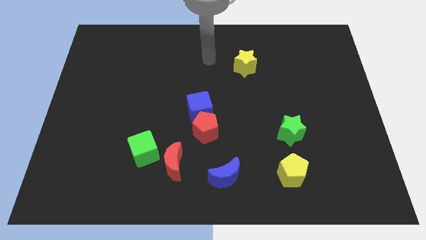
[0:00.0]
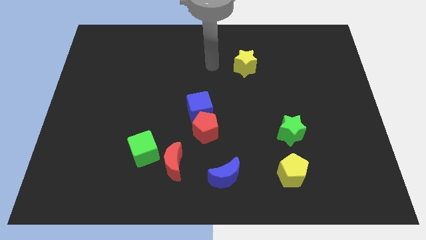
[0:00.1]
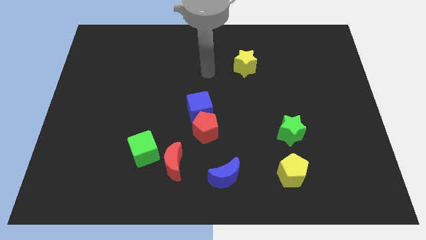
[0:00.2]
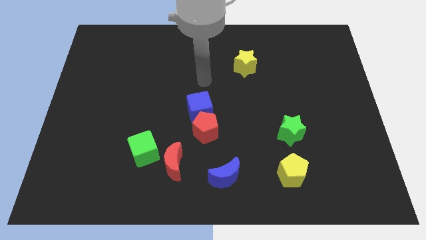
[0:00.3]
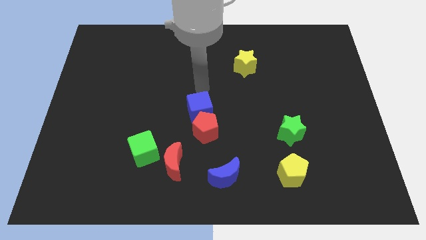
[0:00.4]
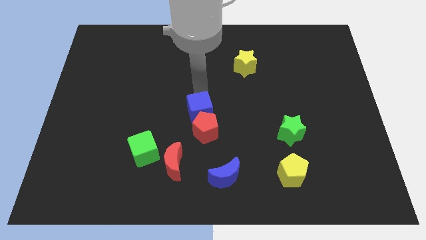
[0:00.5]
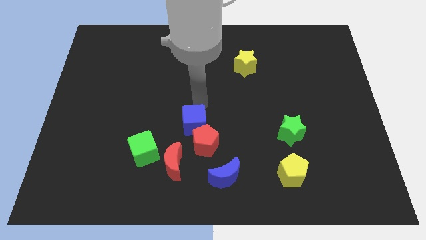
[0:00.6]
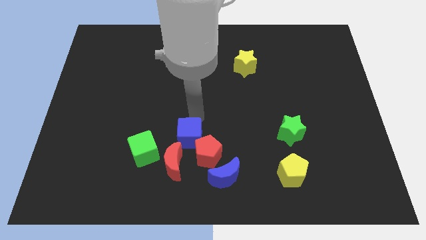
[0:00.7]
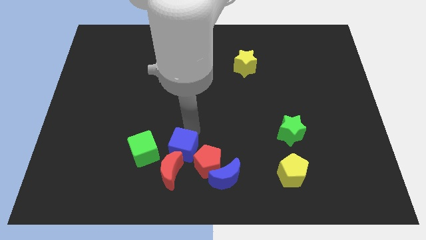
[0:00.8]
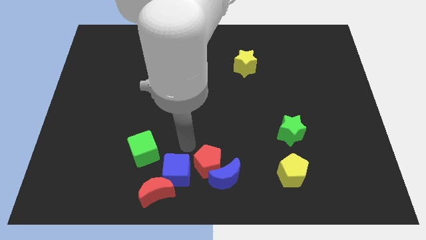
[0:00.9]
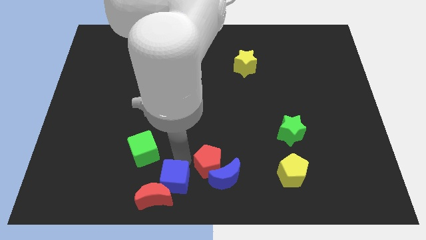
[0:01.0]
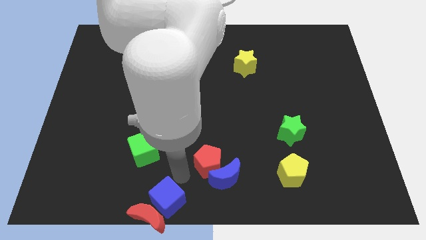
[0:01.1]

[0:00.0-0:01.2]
separate the red pentagon from the blue cube

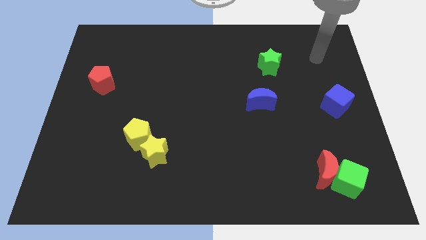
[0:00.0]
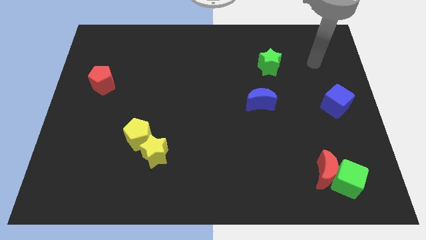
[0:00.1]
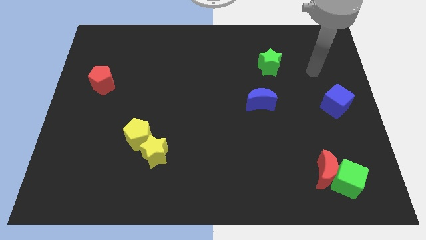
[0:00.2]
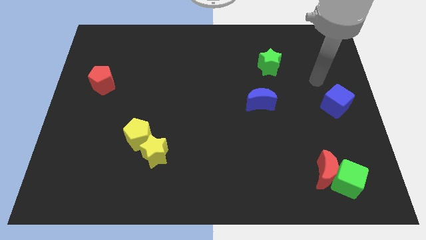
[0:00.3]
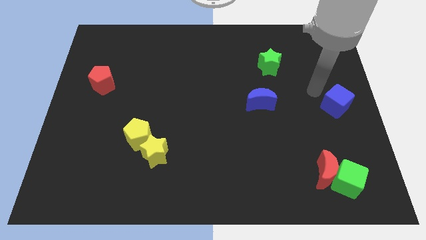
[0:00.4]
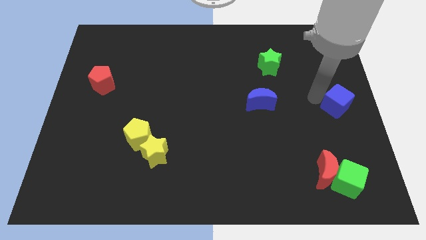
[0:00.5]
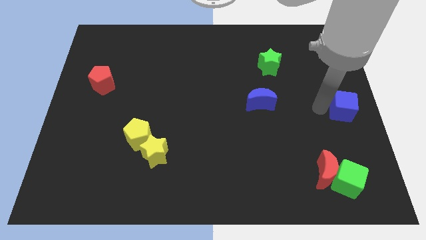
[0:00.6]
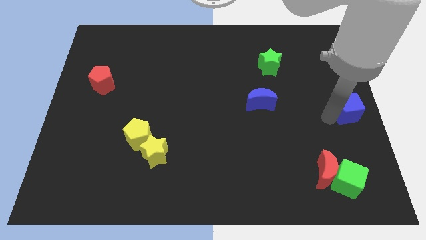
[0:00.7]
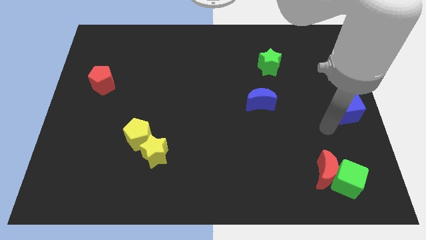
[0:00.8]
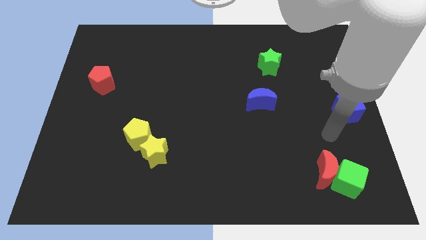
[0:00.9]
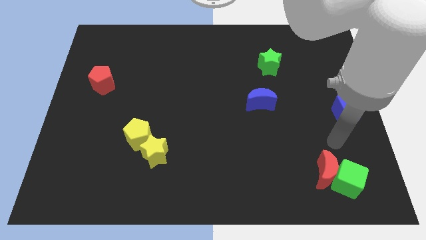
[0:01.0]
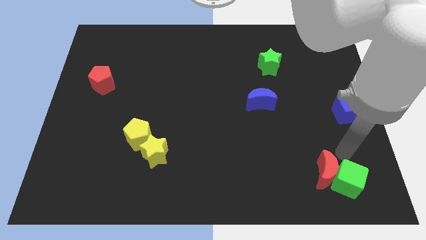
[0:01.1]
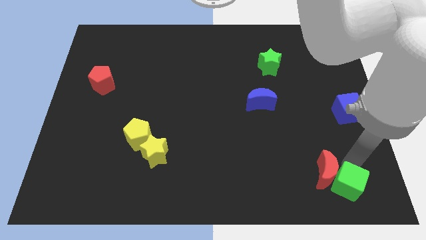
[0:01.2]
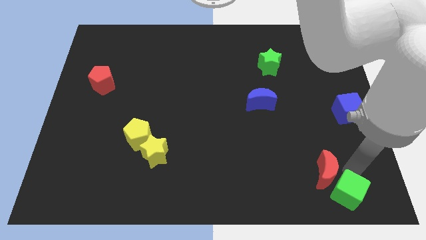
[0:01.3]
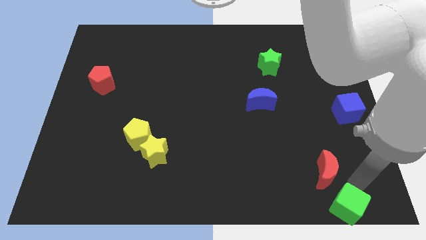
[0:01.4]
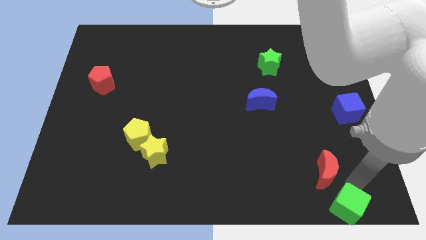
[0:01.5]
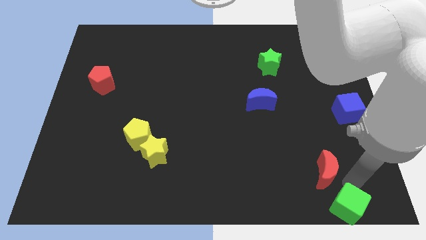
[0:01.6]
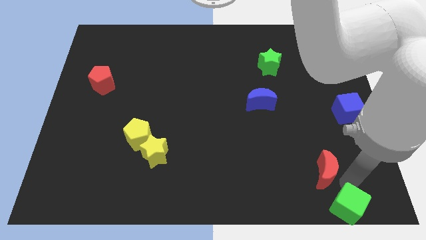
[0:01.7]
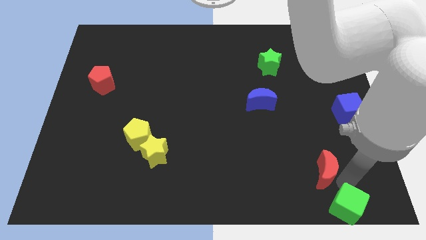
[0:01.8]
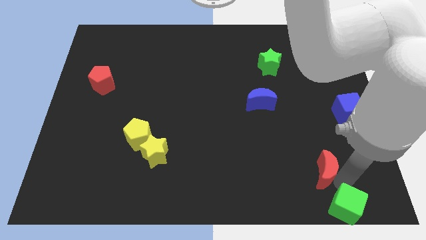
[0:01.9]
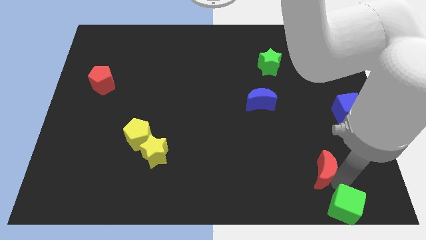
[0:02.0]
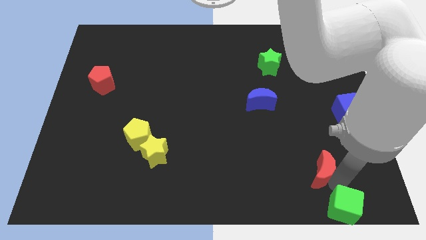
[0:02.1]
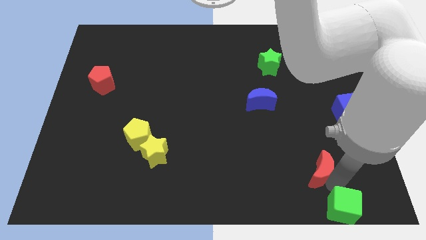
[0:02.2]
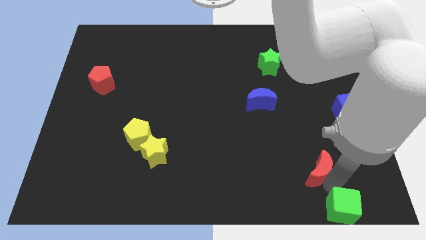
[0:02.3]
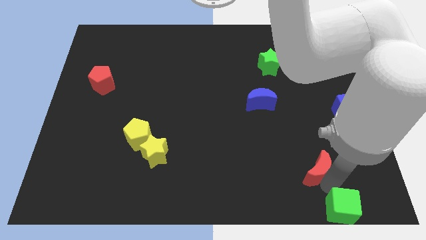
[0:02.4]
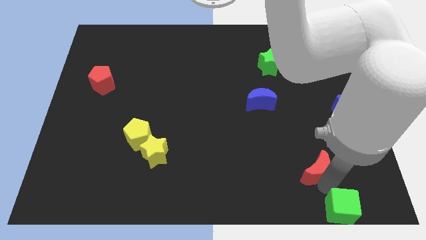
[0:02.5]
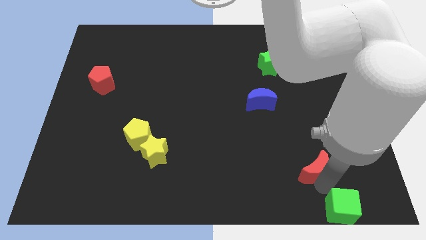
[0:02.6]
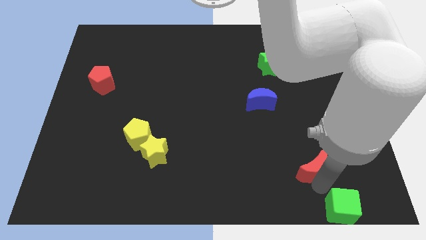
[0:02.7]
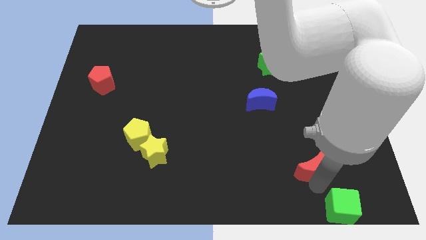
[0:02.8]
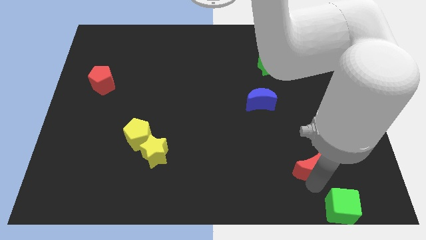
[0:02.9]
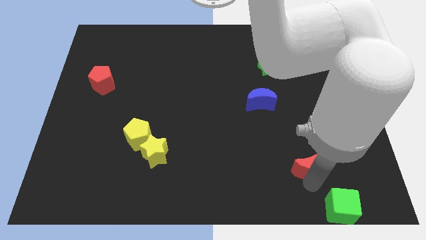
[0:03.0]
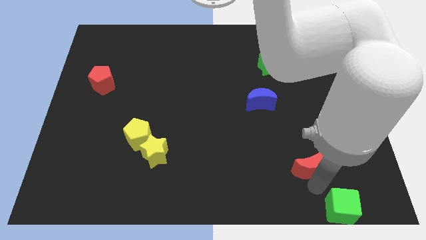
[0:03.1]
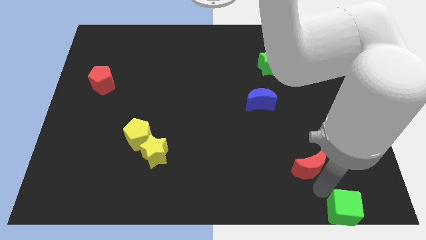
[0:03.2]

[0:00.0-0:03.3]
pull the red moon apart from the green cube

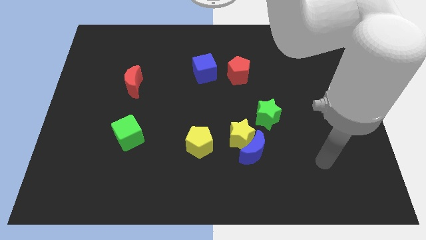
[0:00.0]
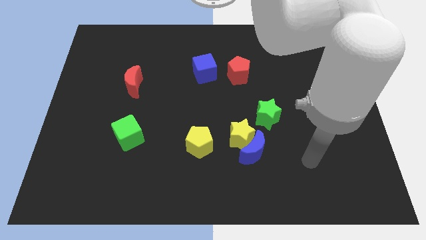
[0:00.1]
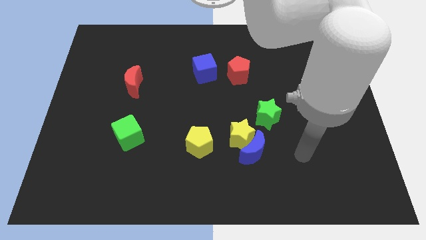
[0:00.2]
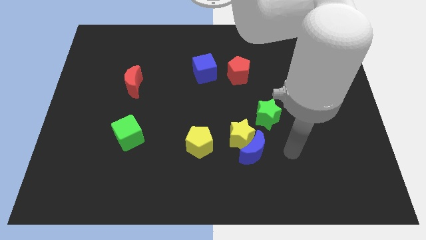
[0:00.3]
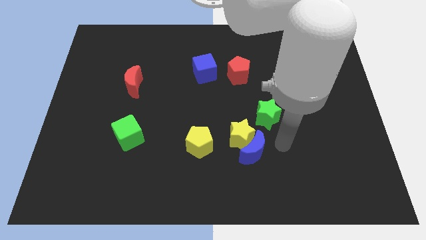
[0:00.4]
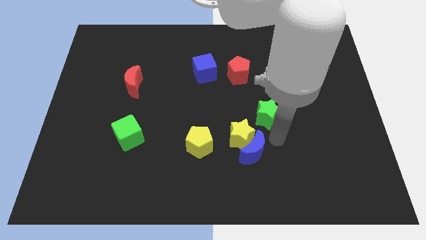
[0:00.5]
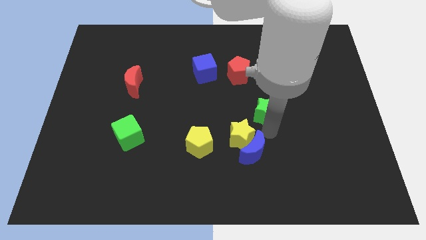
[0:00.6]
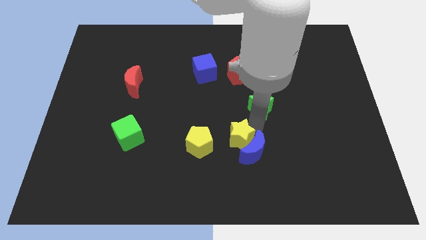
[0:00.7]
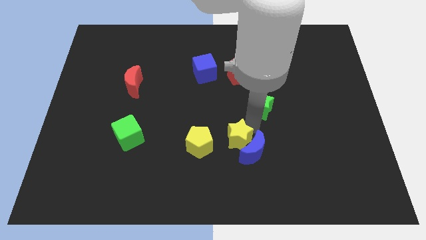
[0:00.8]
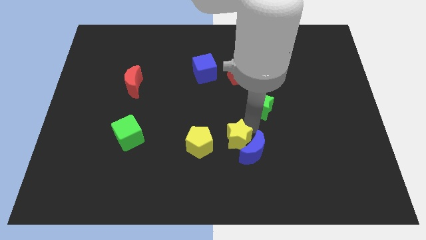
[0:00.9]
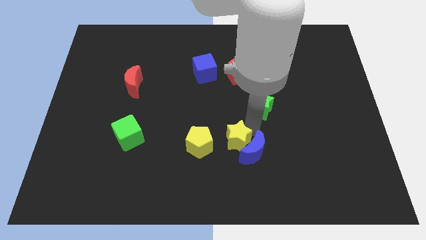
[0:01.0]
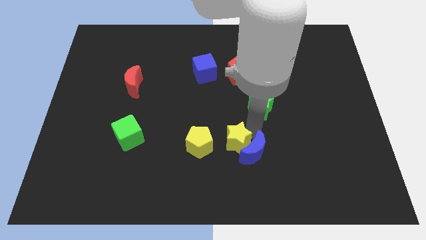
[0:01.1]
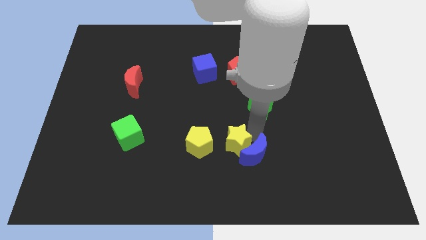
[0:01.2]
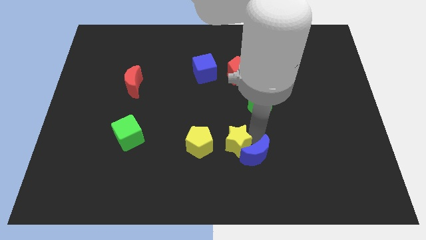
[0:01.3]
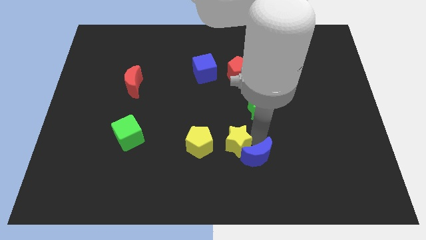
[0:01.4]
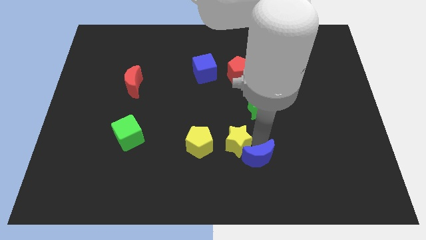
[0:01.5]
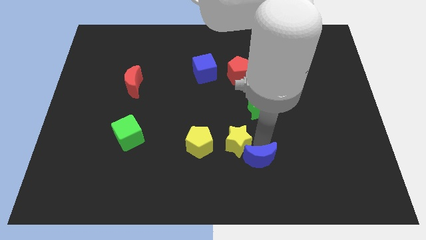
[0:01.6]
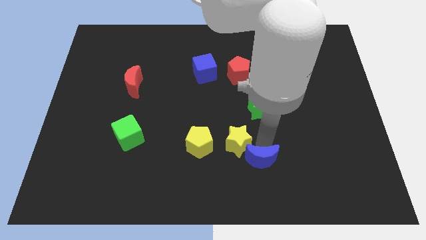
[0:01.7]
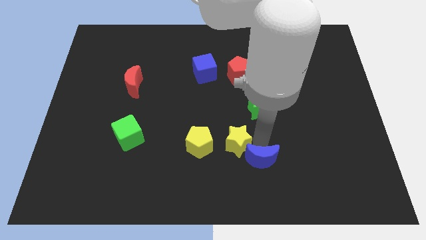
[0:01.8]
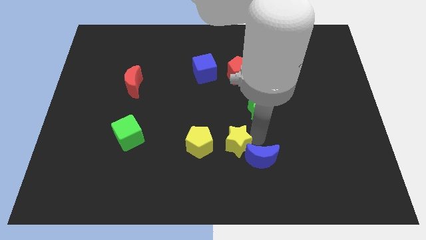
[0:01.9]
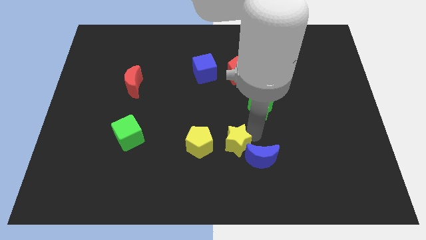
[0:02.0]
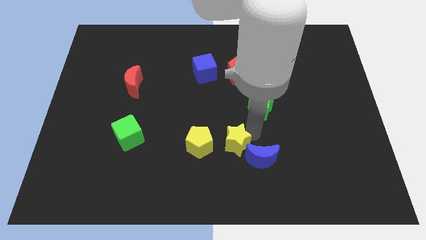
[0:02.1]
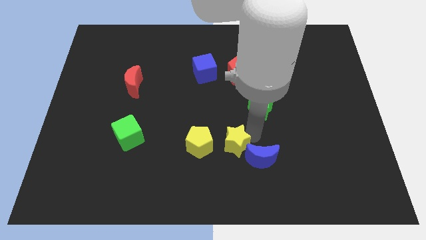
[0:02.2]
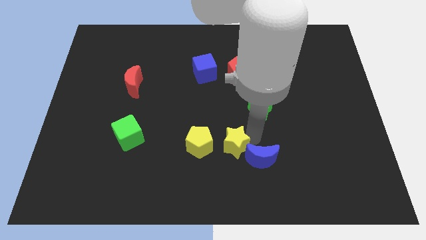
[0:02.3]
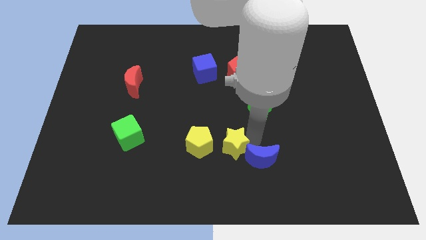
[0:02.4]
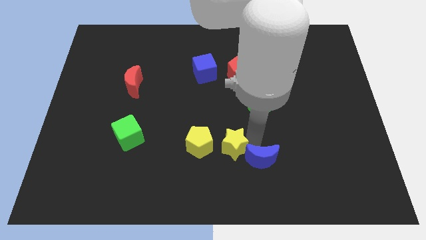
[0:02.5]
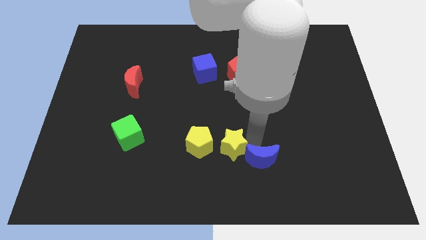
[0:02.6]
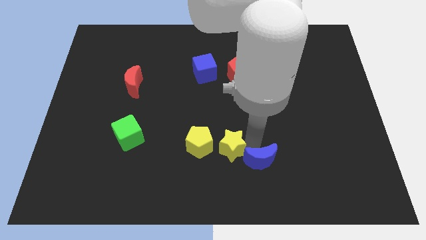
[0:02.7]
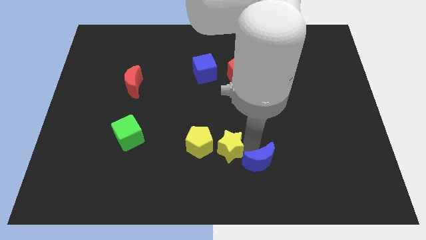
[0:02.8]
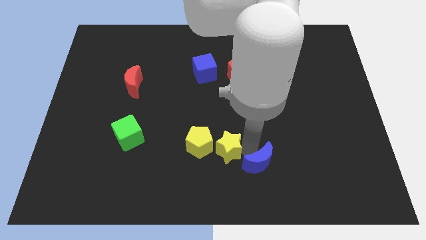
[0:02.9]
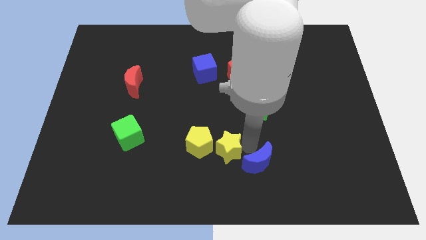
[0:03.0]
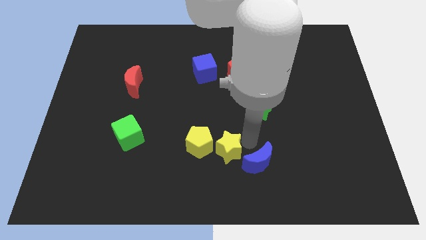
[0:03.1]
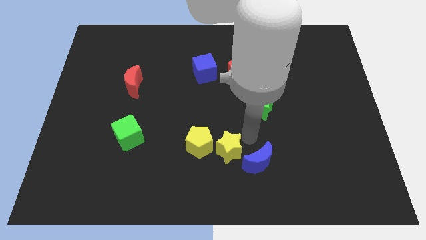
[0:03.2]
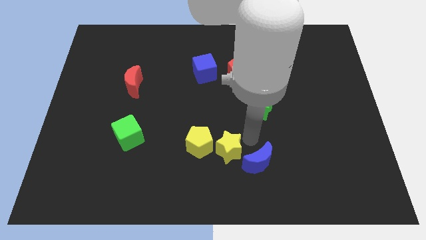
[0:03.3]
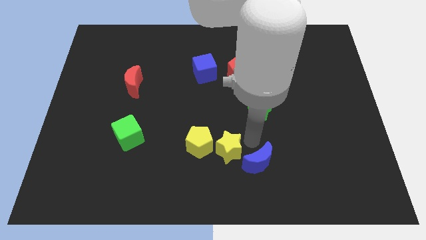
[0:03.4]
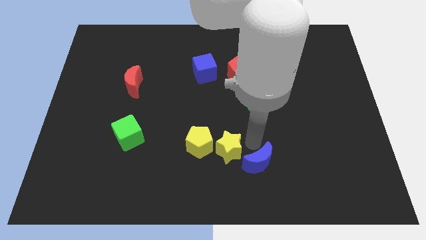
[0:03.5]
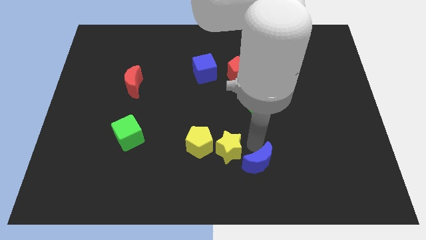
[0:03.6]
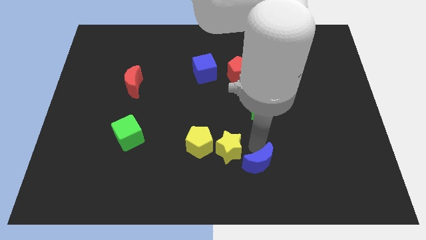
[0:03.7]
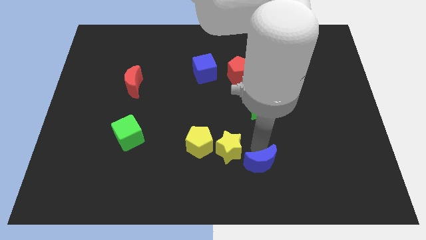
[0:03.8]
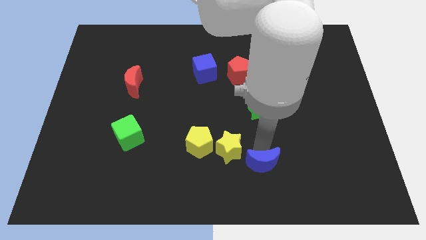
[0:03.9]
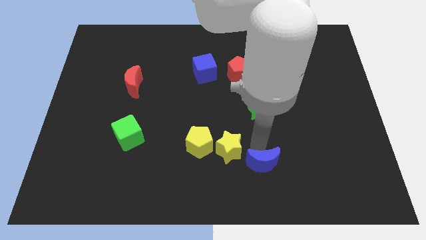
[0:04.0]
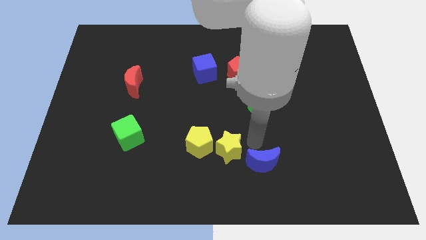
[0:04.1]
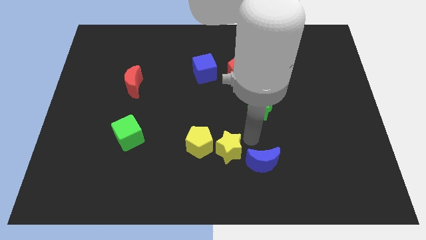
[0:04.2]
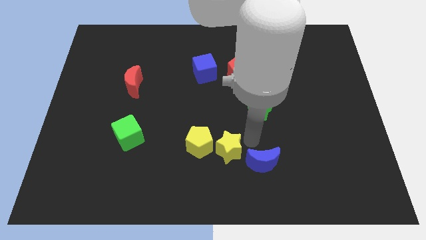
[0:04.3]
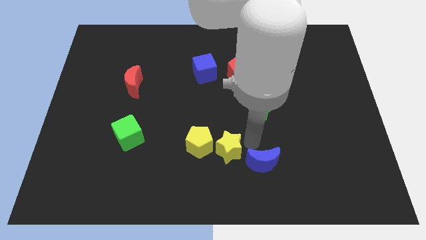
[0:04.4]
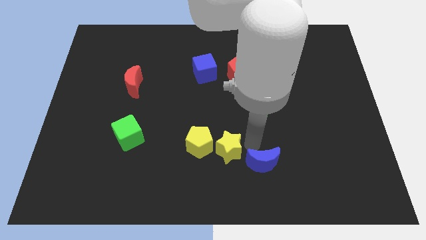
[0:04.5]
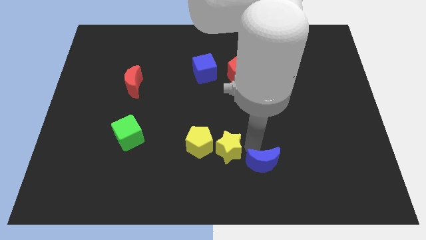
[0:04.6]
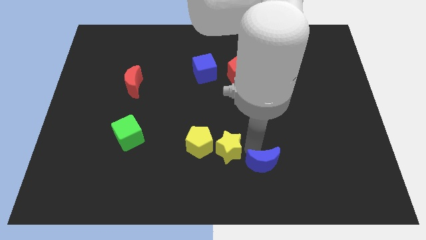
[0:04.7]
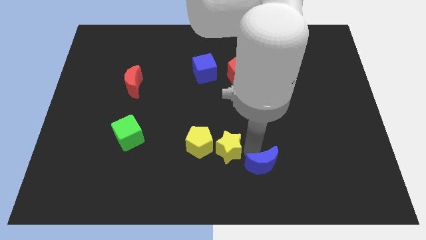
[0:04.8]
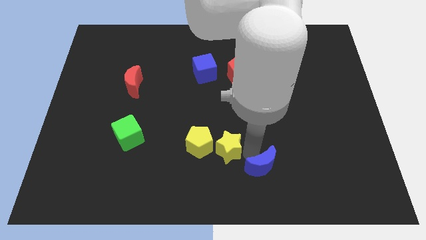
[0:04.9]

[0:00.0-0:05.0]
separate the blue moon from the yellow star and green star
